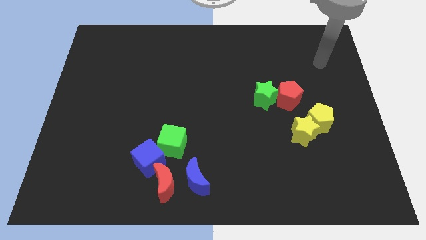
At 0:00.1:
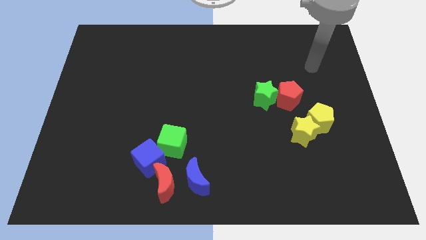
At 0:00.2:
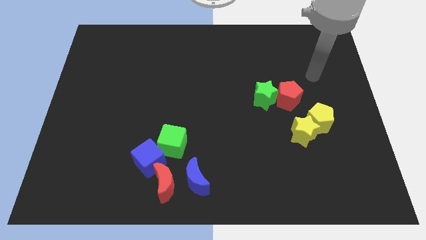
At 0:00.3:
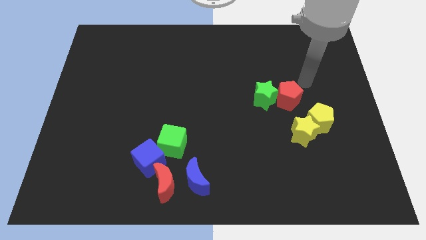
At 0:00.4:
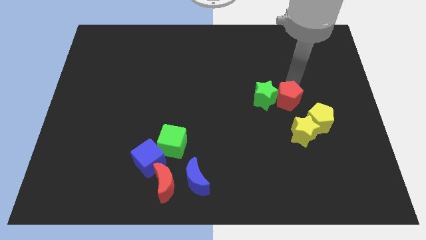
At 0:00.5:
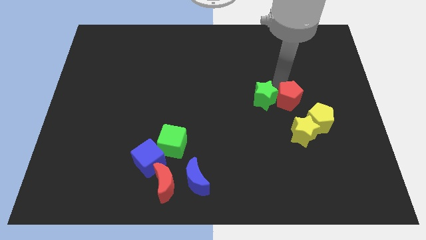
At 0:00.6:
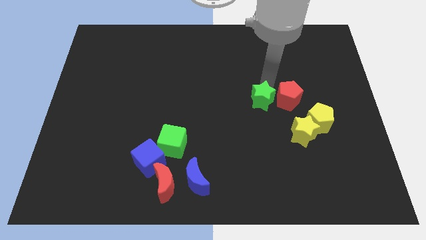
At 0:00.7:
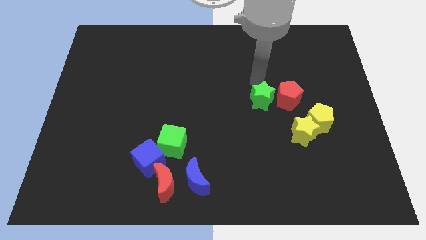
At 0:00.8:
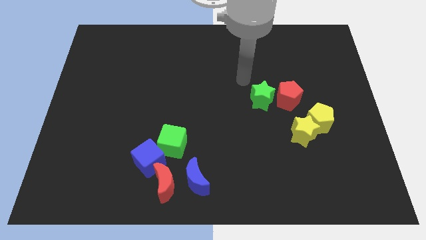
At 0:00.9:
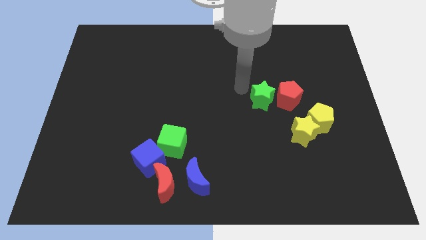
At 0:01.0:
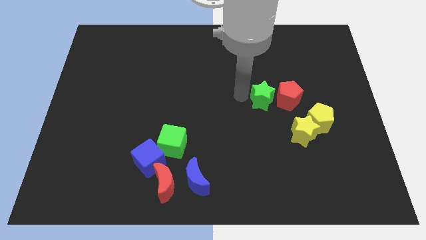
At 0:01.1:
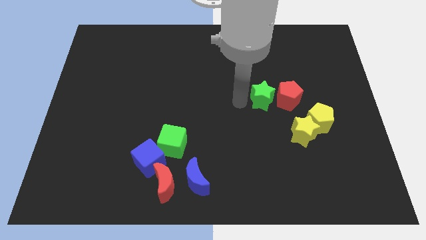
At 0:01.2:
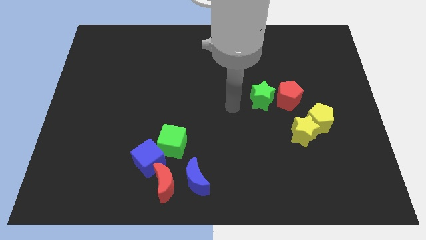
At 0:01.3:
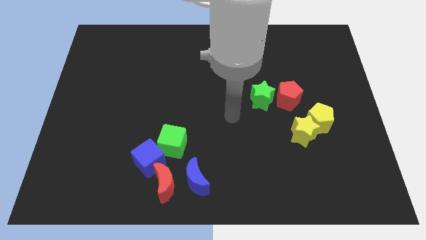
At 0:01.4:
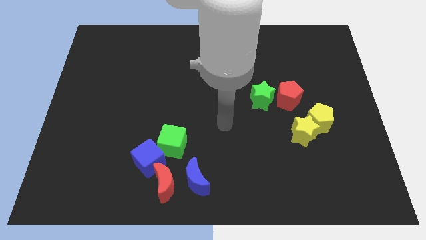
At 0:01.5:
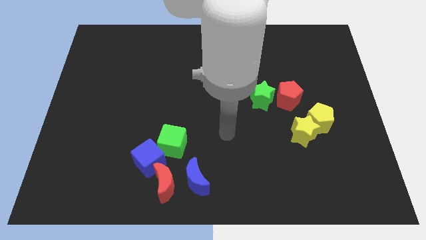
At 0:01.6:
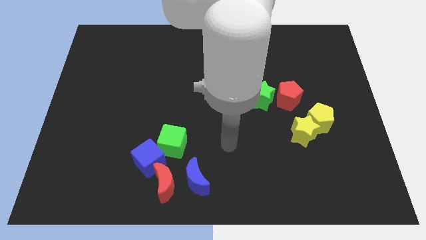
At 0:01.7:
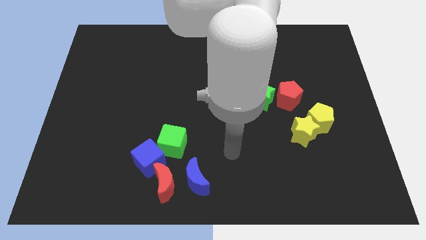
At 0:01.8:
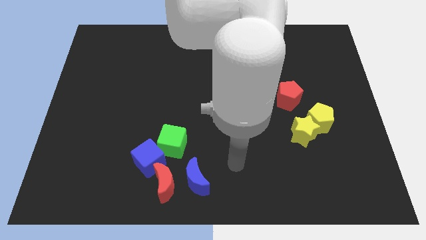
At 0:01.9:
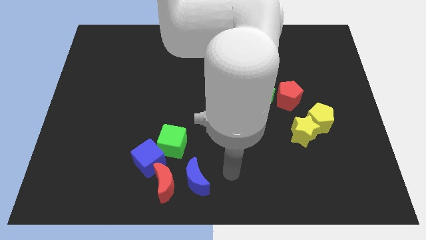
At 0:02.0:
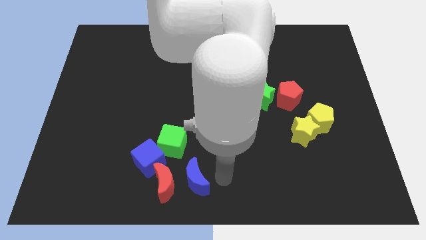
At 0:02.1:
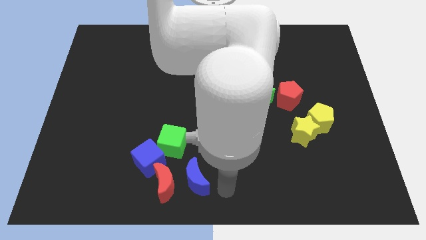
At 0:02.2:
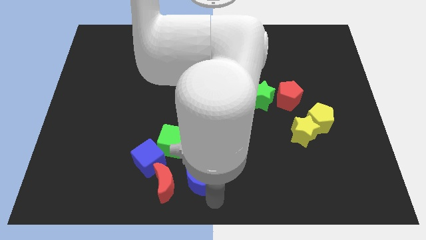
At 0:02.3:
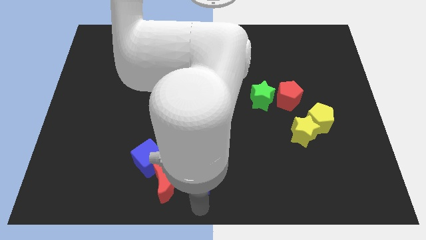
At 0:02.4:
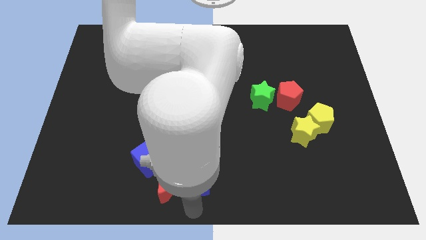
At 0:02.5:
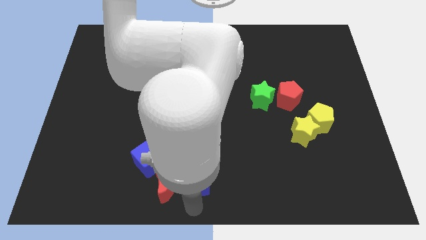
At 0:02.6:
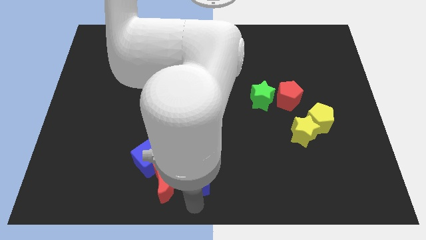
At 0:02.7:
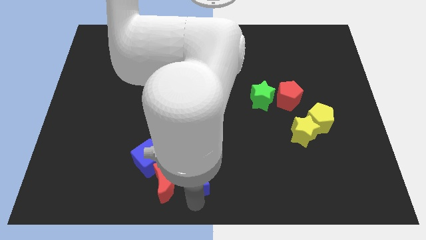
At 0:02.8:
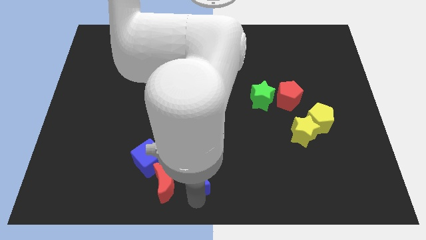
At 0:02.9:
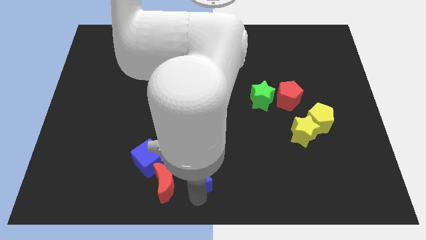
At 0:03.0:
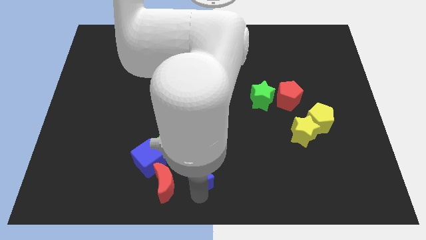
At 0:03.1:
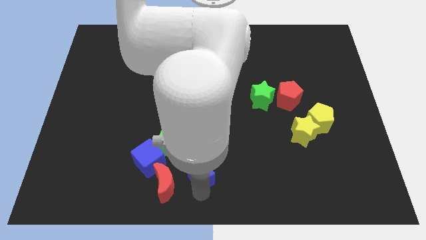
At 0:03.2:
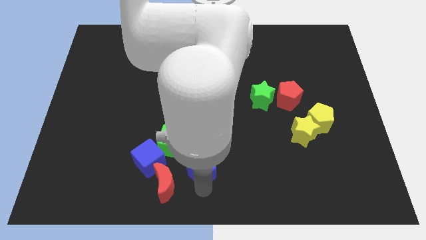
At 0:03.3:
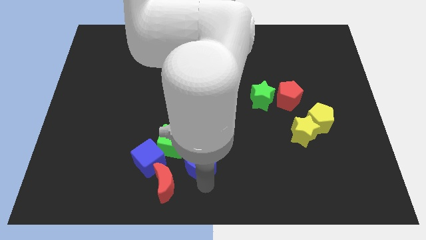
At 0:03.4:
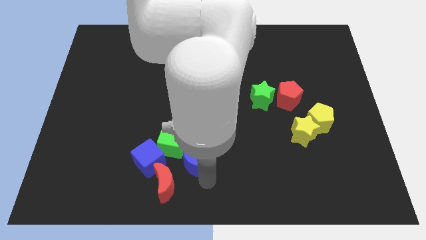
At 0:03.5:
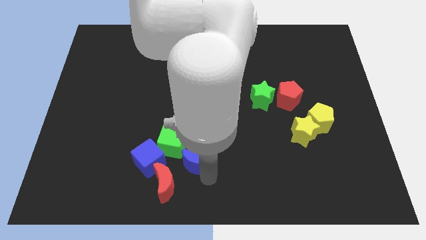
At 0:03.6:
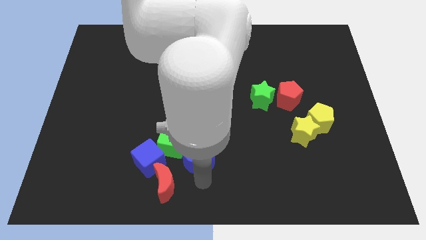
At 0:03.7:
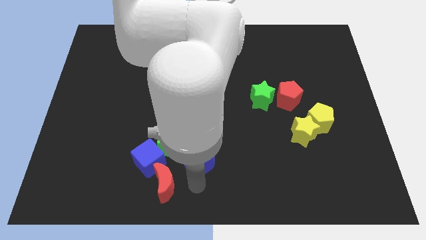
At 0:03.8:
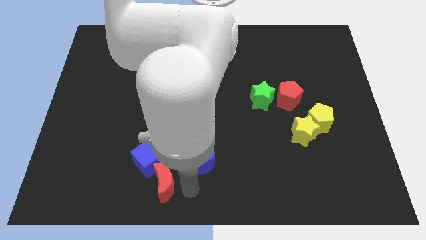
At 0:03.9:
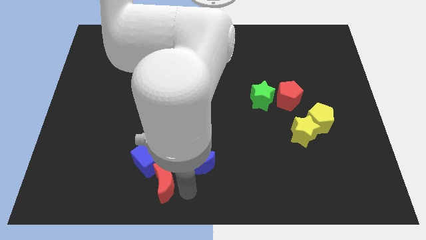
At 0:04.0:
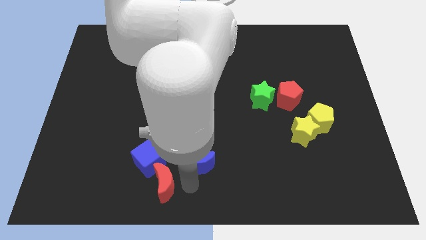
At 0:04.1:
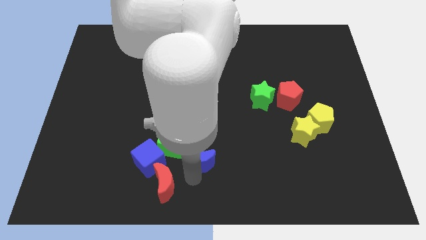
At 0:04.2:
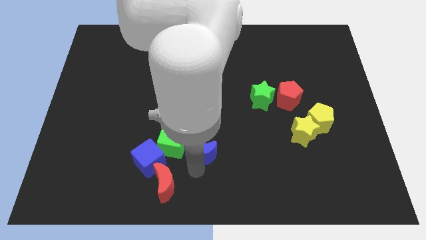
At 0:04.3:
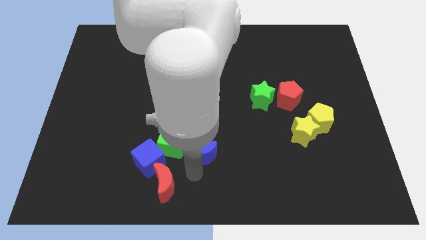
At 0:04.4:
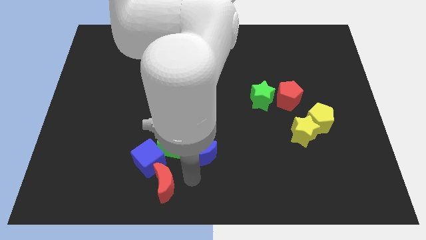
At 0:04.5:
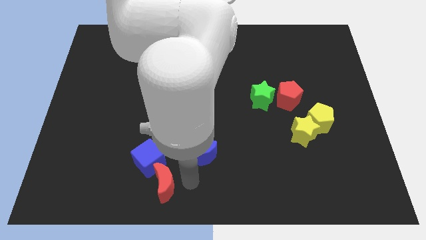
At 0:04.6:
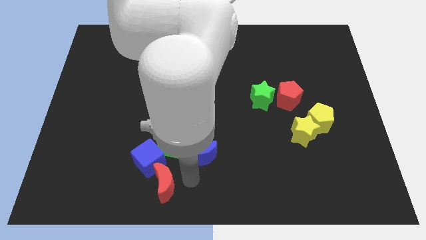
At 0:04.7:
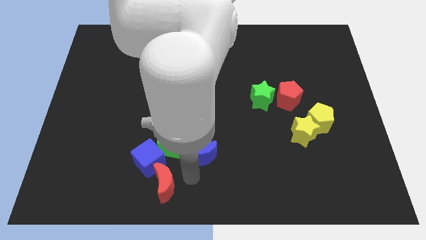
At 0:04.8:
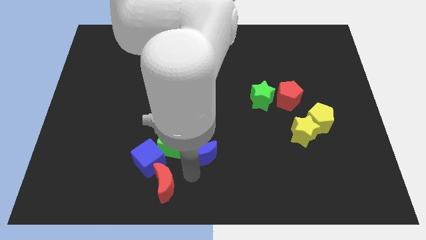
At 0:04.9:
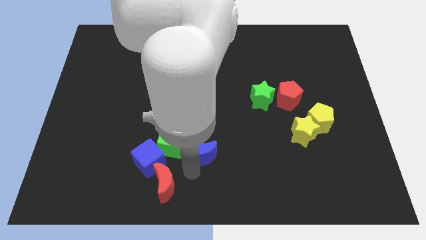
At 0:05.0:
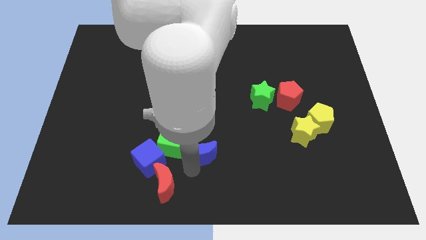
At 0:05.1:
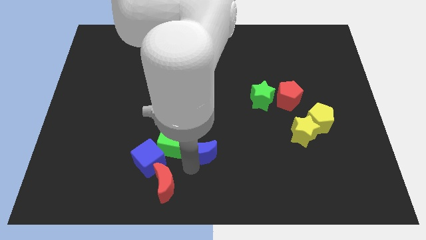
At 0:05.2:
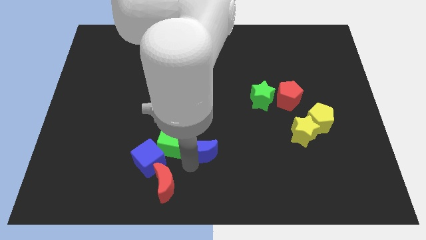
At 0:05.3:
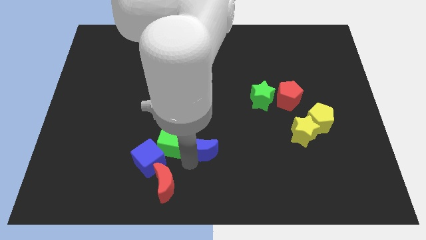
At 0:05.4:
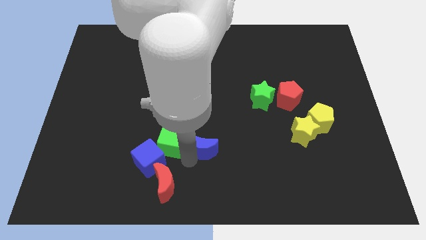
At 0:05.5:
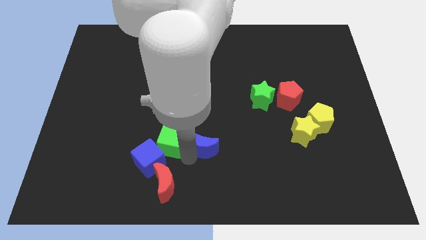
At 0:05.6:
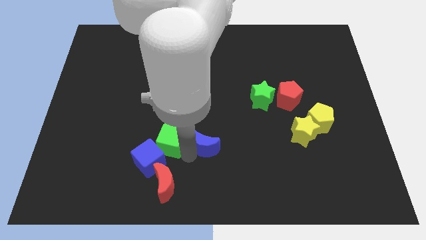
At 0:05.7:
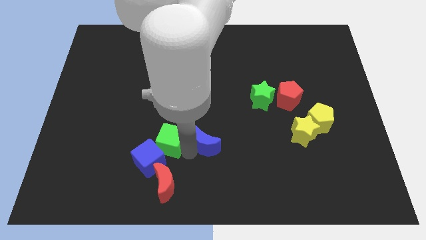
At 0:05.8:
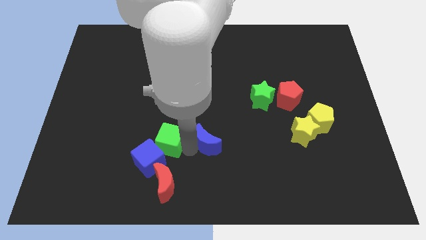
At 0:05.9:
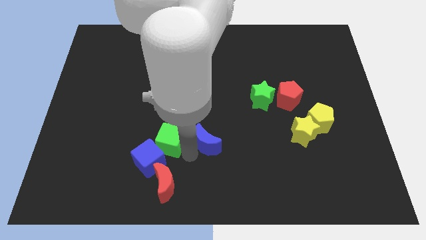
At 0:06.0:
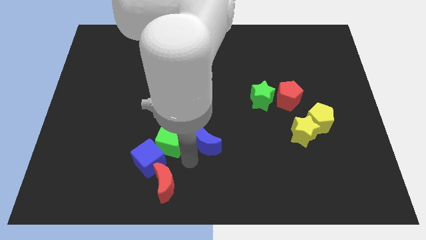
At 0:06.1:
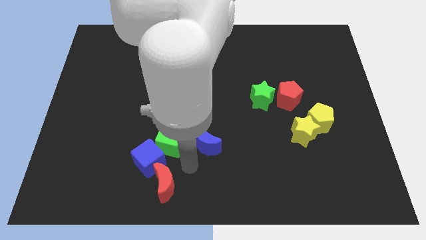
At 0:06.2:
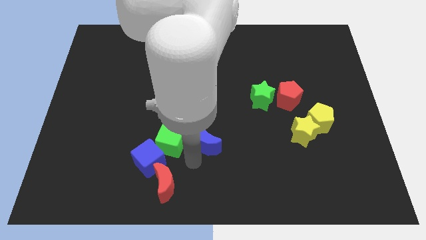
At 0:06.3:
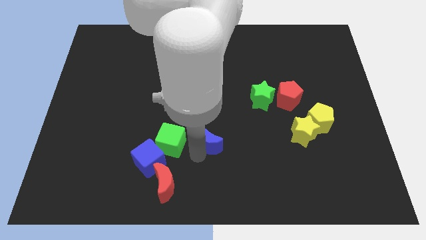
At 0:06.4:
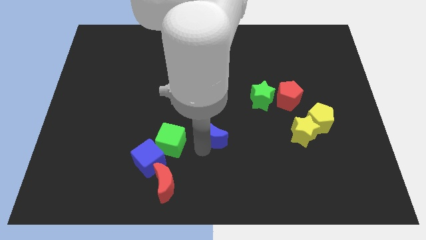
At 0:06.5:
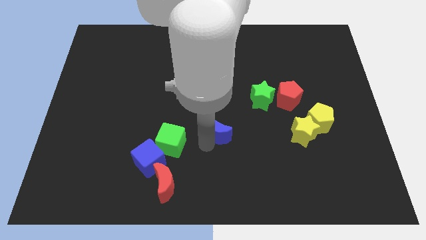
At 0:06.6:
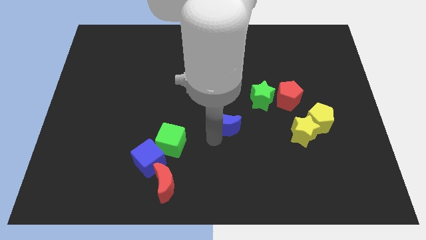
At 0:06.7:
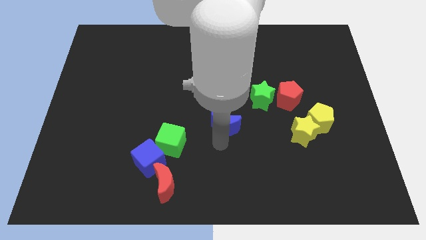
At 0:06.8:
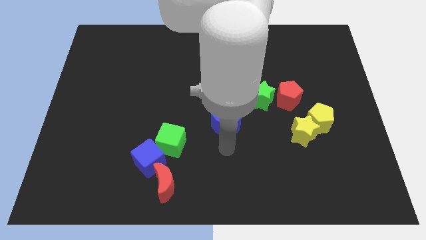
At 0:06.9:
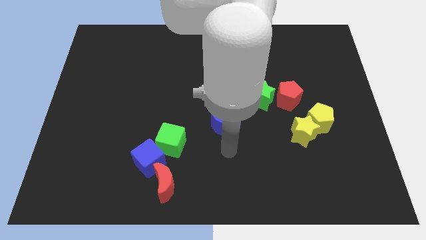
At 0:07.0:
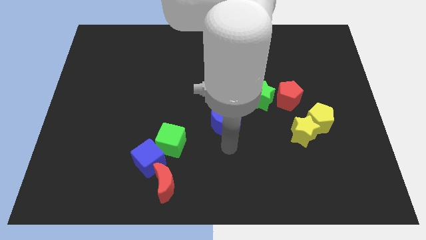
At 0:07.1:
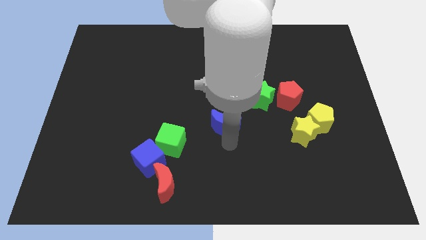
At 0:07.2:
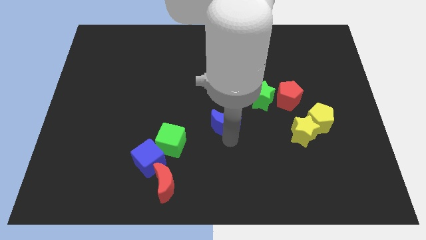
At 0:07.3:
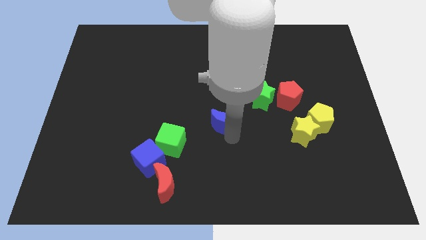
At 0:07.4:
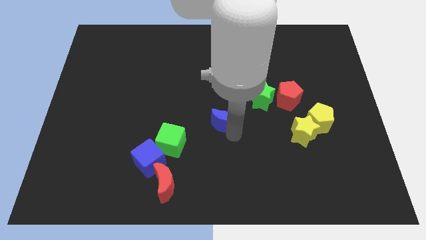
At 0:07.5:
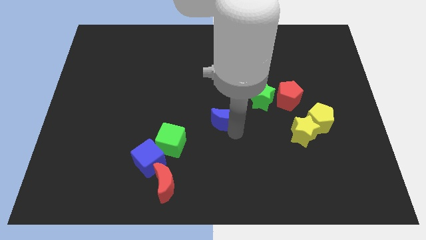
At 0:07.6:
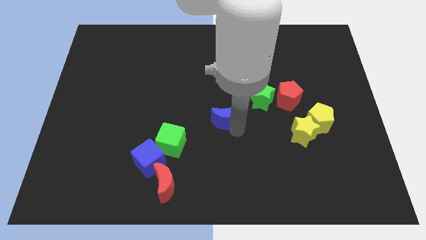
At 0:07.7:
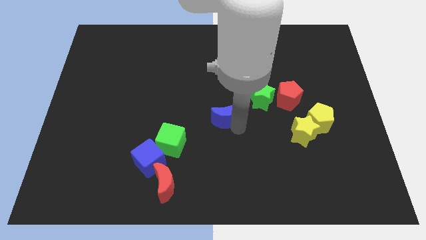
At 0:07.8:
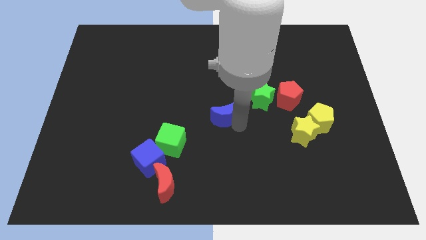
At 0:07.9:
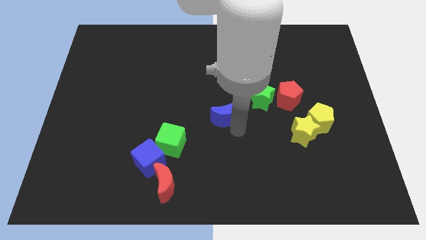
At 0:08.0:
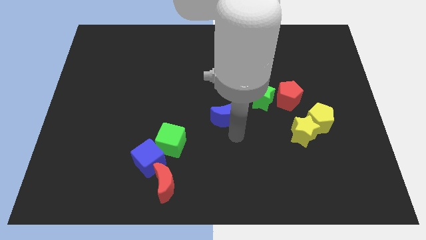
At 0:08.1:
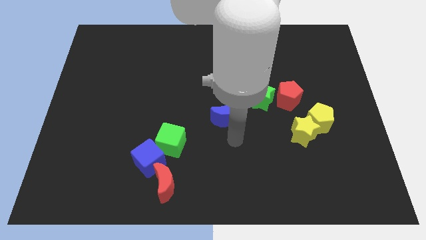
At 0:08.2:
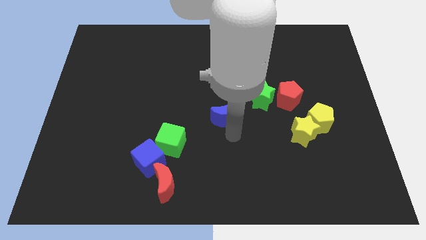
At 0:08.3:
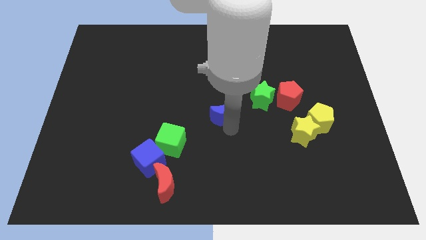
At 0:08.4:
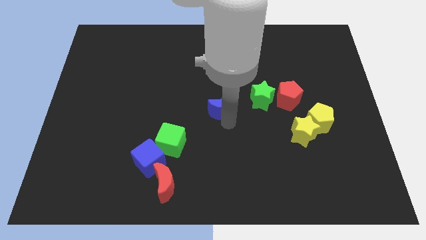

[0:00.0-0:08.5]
push the blue moon just left of the green star
